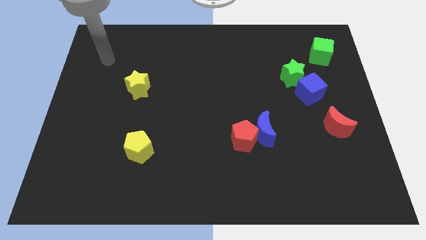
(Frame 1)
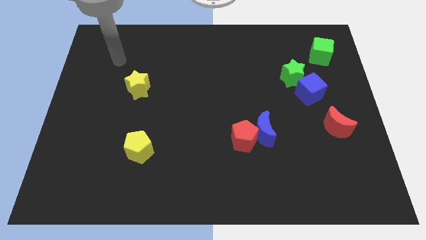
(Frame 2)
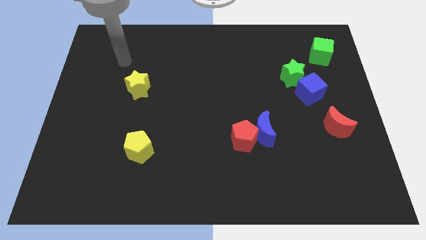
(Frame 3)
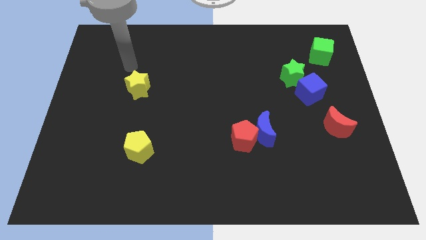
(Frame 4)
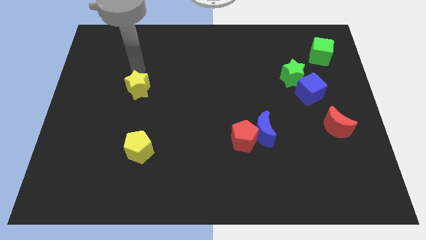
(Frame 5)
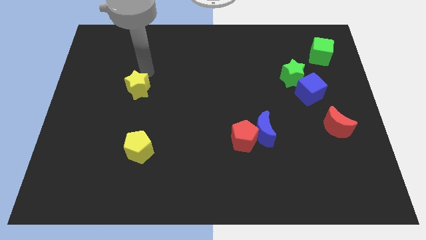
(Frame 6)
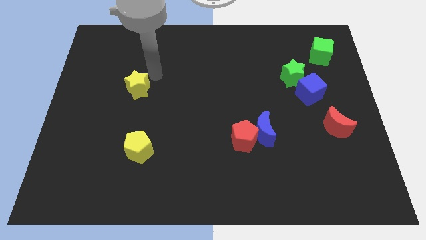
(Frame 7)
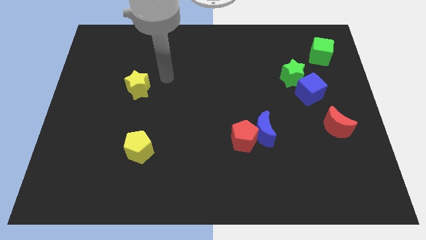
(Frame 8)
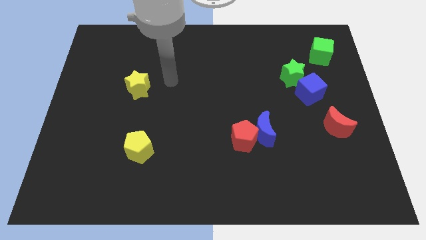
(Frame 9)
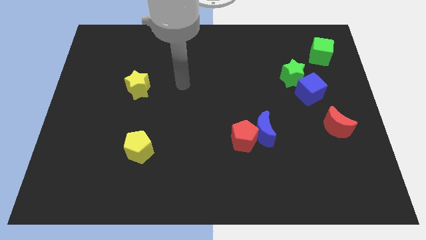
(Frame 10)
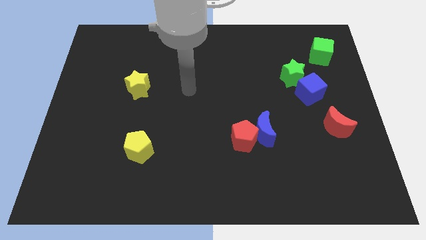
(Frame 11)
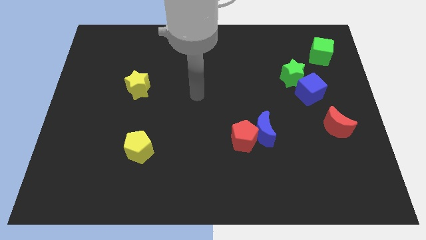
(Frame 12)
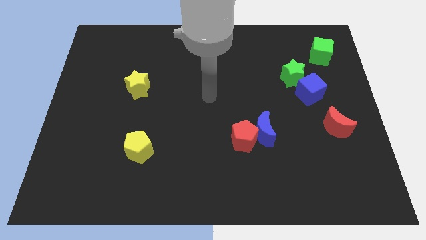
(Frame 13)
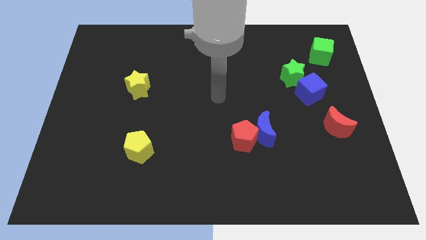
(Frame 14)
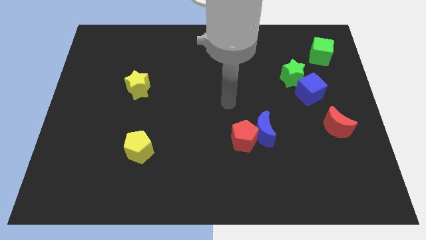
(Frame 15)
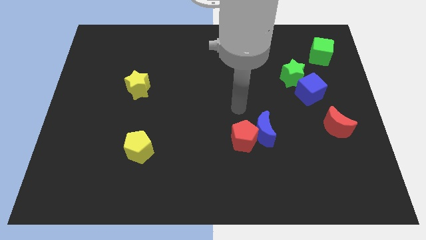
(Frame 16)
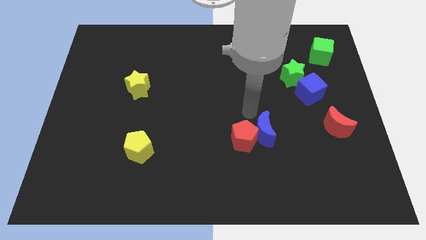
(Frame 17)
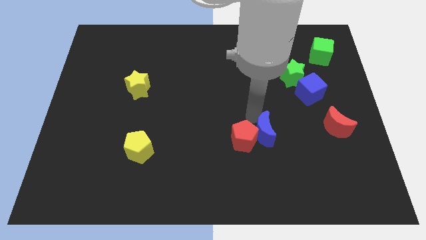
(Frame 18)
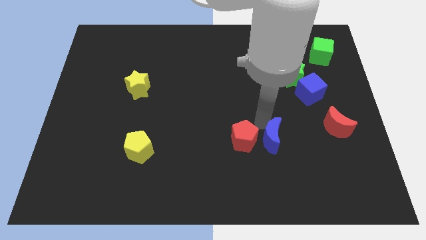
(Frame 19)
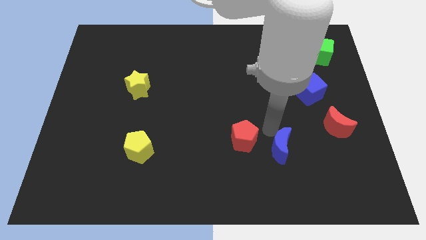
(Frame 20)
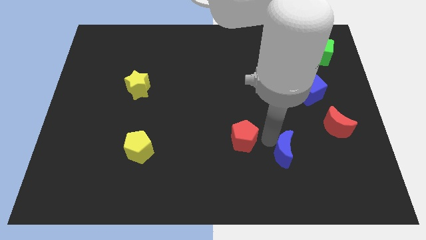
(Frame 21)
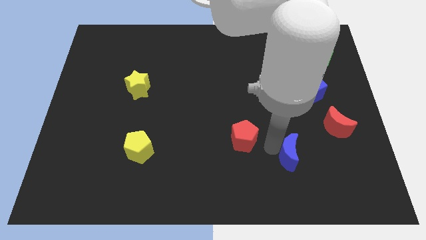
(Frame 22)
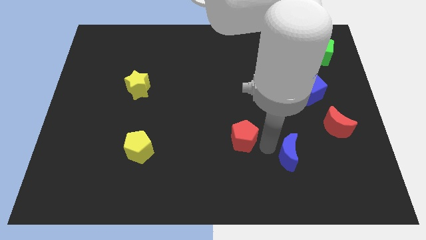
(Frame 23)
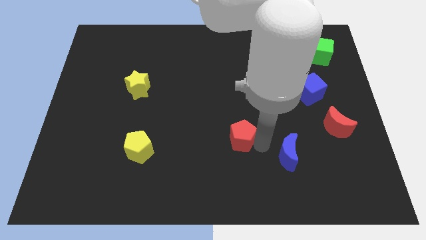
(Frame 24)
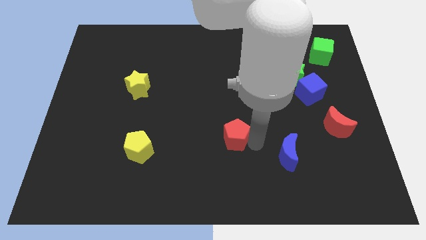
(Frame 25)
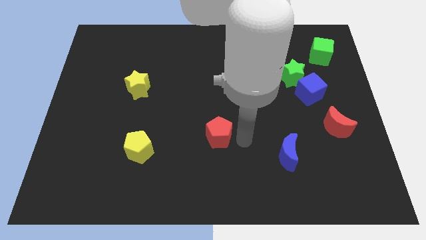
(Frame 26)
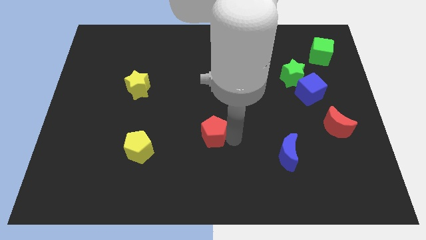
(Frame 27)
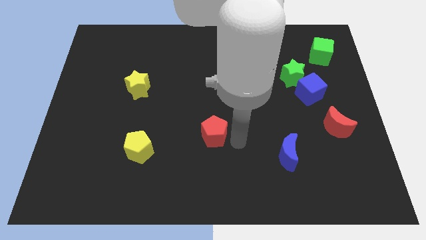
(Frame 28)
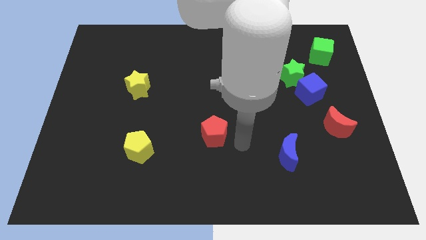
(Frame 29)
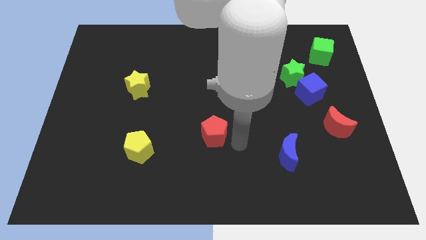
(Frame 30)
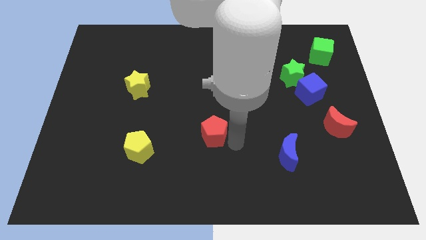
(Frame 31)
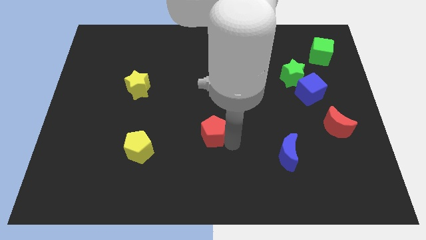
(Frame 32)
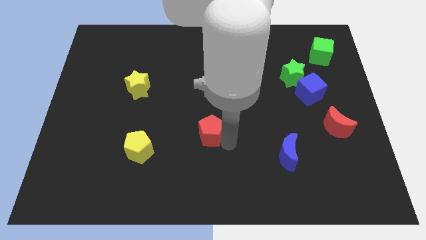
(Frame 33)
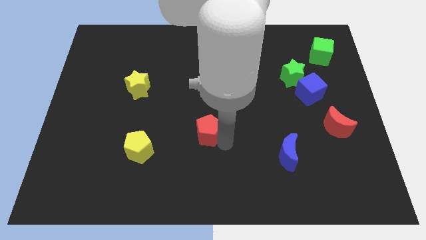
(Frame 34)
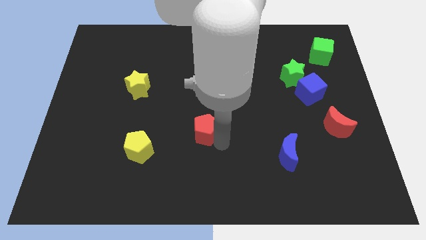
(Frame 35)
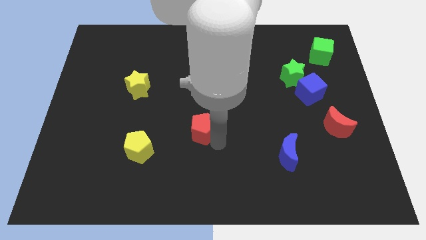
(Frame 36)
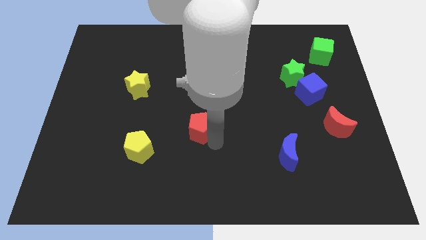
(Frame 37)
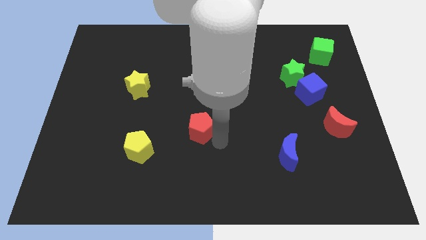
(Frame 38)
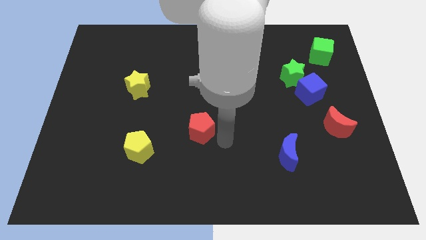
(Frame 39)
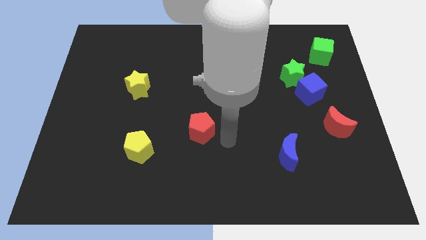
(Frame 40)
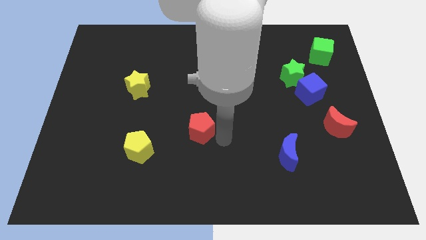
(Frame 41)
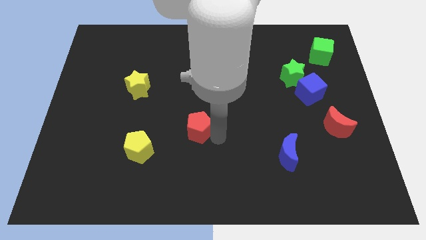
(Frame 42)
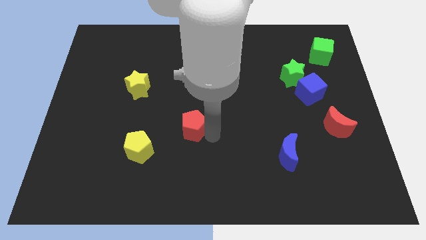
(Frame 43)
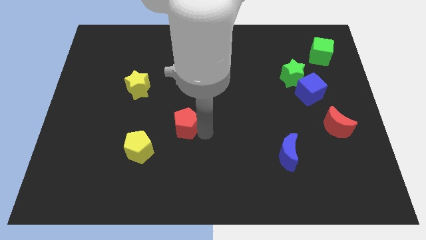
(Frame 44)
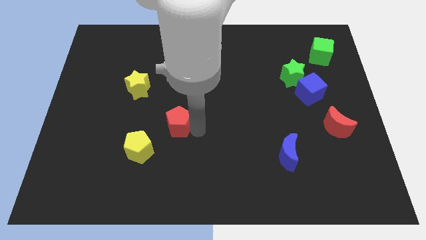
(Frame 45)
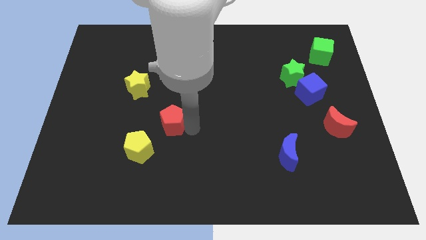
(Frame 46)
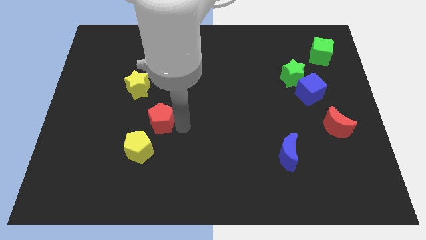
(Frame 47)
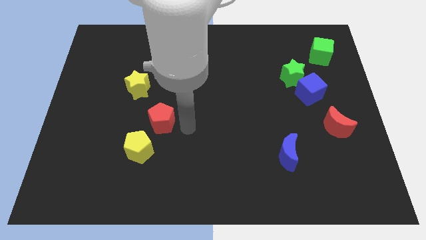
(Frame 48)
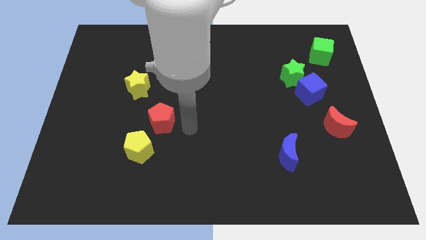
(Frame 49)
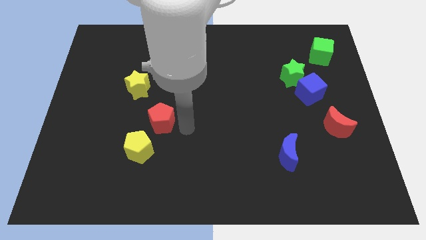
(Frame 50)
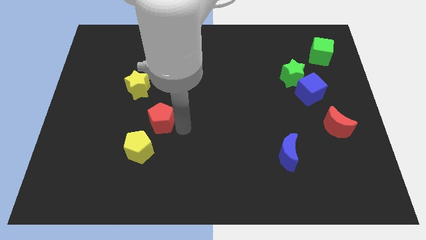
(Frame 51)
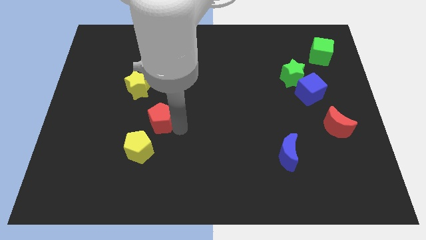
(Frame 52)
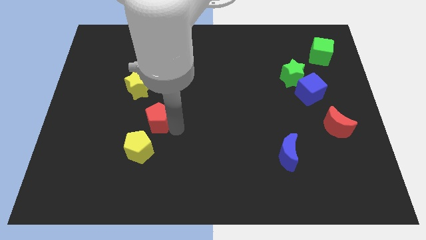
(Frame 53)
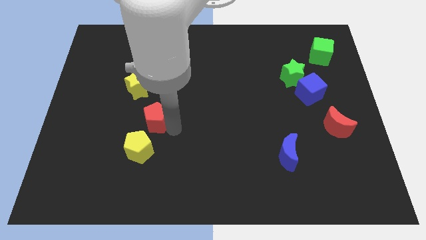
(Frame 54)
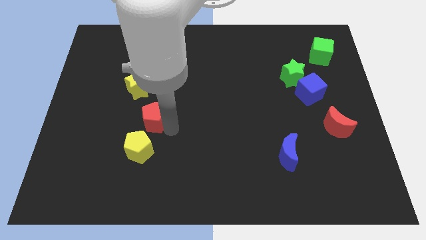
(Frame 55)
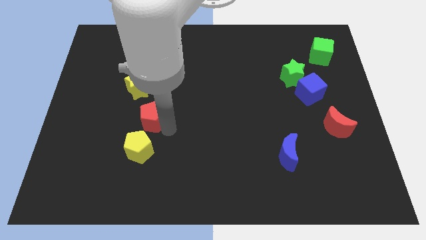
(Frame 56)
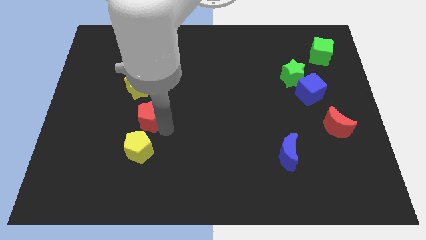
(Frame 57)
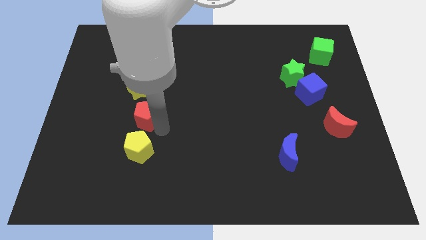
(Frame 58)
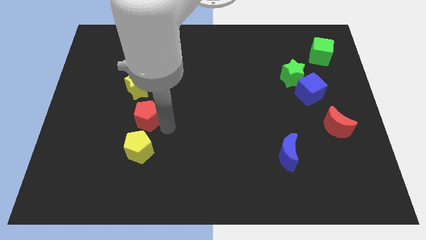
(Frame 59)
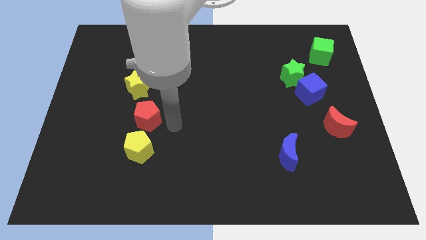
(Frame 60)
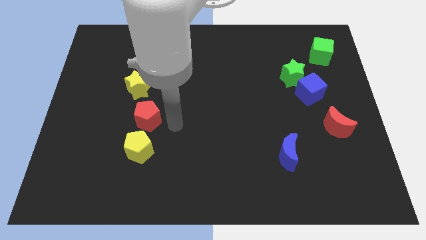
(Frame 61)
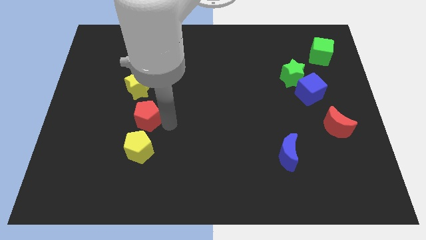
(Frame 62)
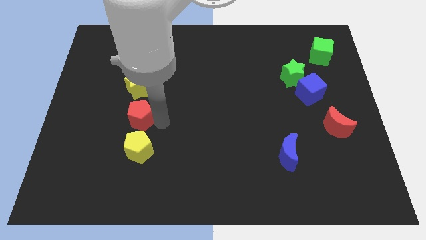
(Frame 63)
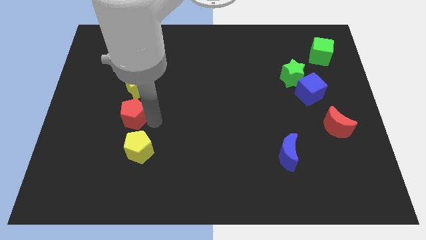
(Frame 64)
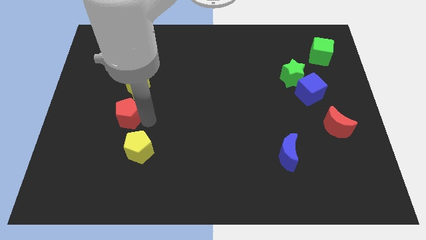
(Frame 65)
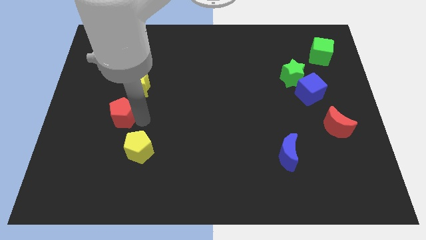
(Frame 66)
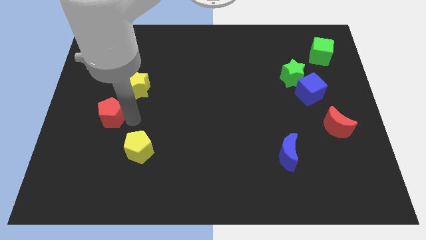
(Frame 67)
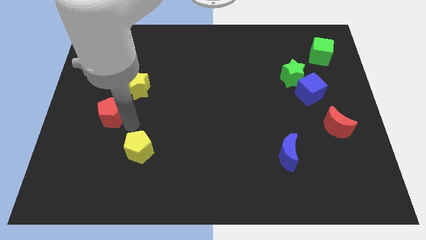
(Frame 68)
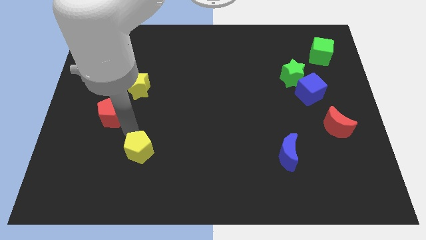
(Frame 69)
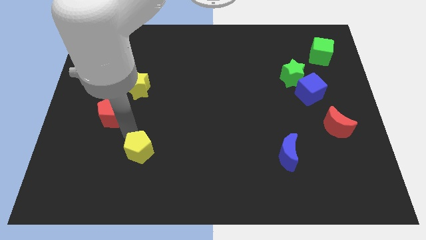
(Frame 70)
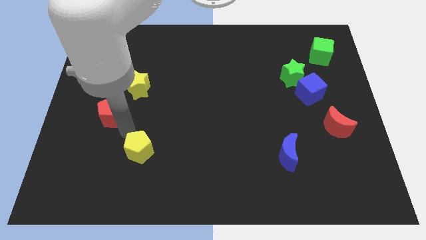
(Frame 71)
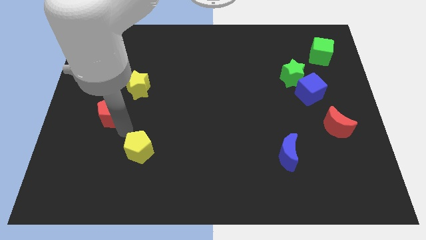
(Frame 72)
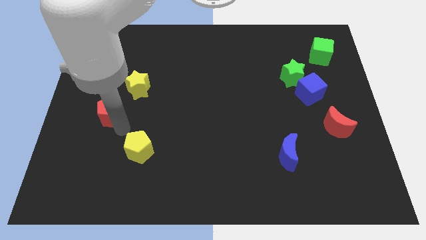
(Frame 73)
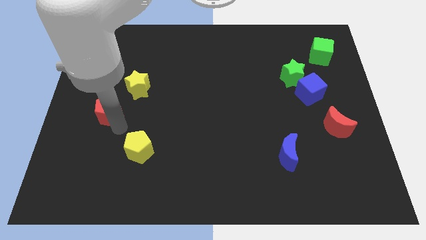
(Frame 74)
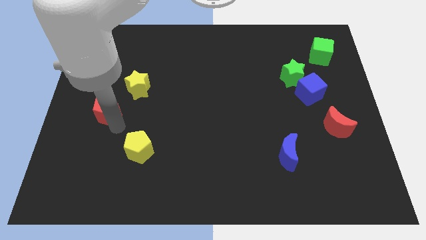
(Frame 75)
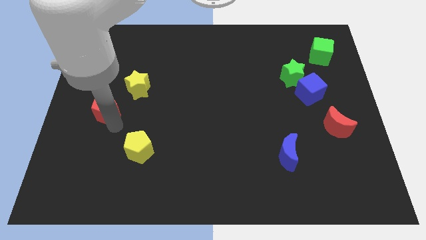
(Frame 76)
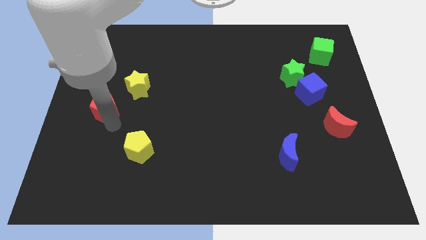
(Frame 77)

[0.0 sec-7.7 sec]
slide the red pentagon to the center left
